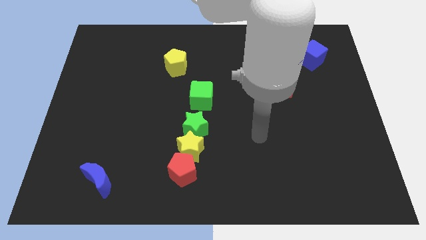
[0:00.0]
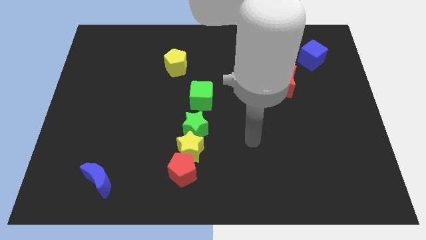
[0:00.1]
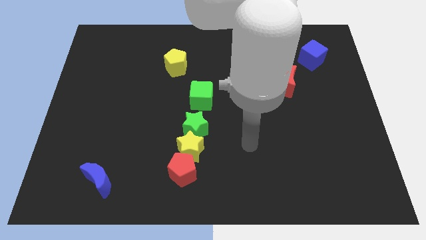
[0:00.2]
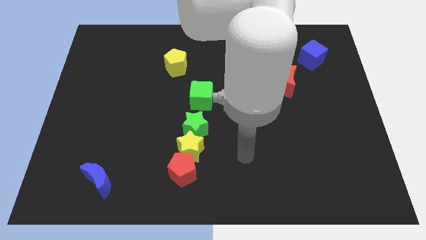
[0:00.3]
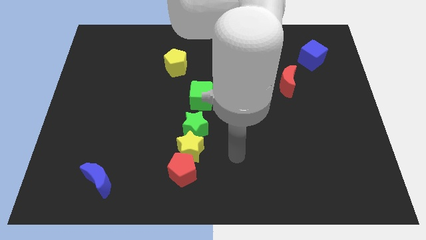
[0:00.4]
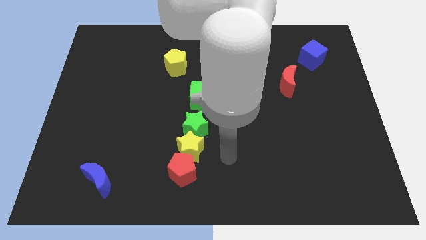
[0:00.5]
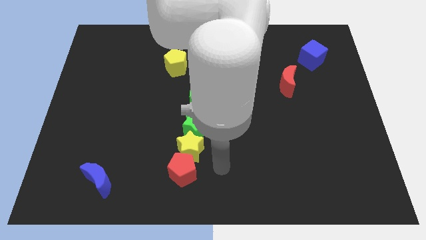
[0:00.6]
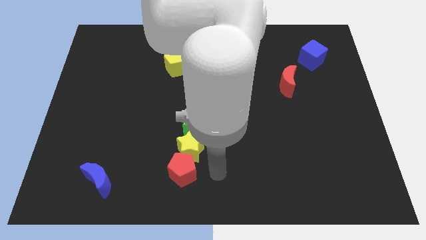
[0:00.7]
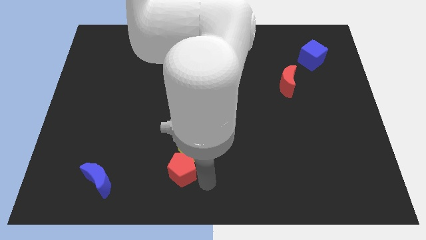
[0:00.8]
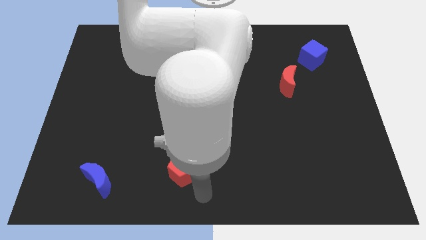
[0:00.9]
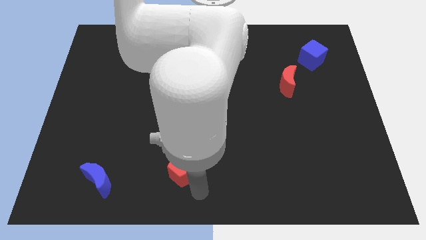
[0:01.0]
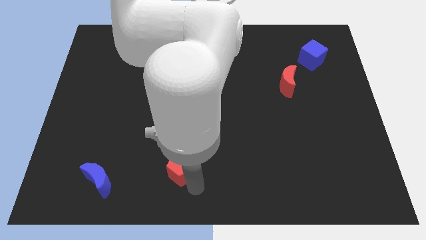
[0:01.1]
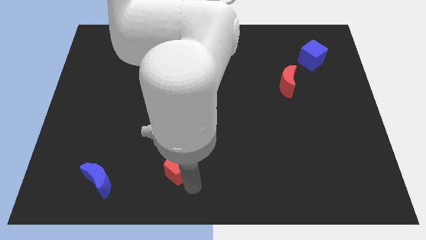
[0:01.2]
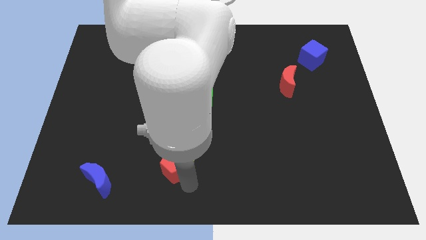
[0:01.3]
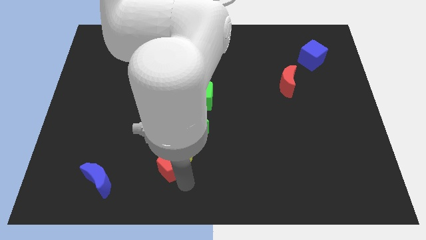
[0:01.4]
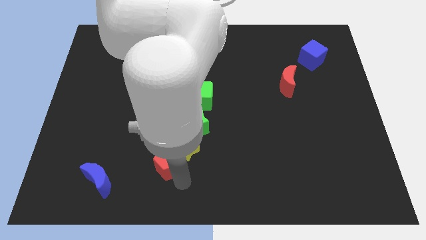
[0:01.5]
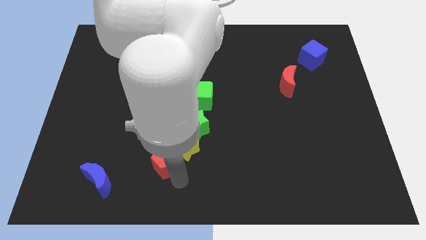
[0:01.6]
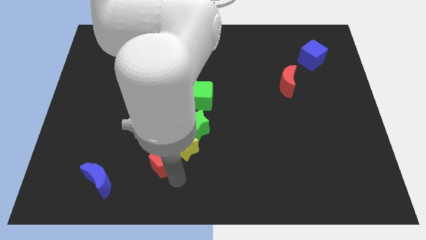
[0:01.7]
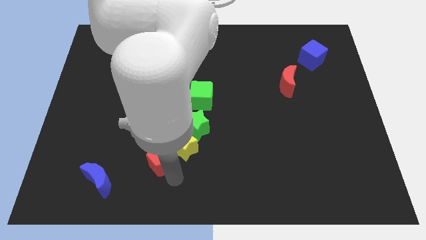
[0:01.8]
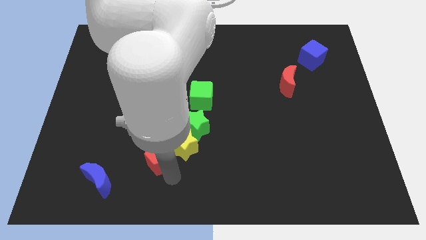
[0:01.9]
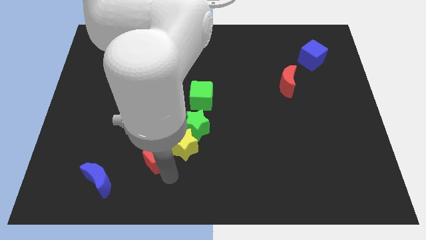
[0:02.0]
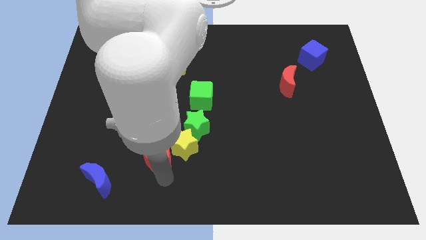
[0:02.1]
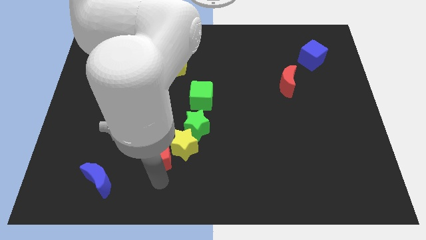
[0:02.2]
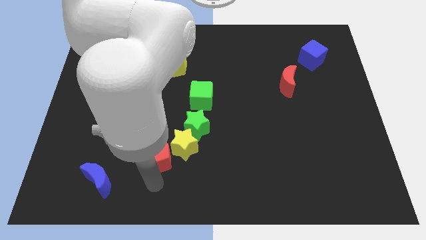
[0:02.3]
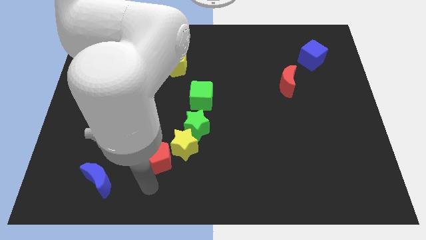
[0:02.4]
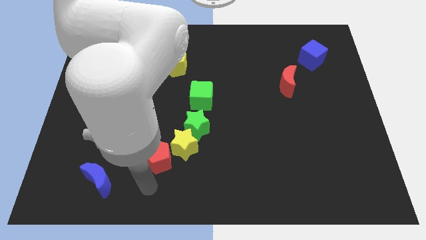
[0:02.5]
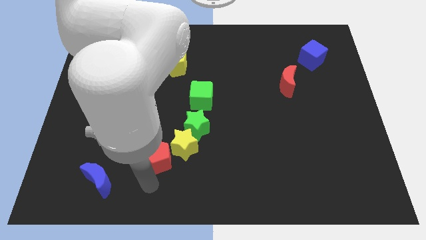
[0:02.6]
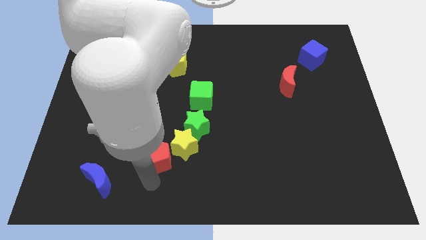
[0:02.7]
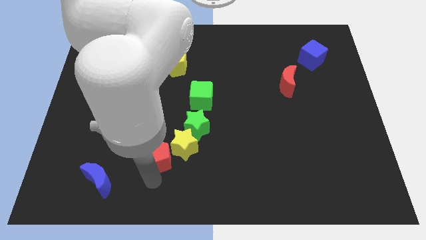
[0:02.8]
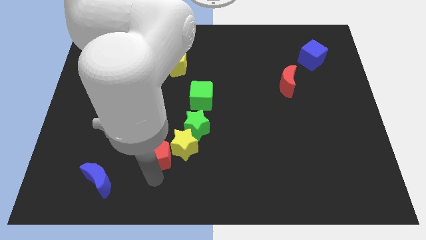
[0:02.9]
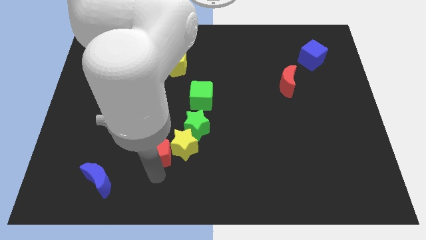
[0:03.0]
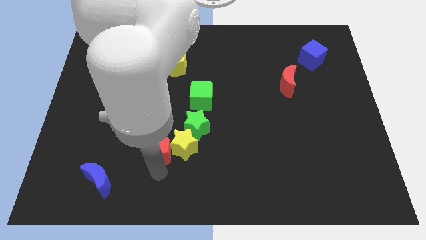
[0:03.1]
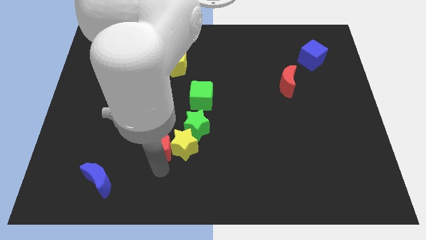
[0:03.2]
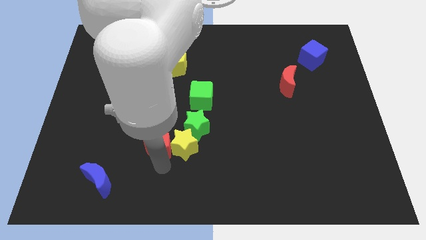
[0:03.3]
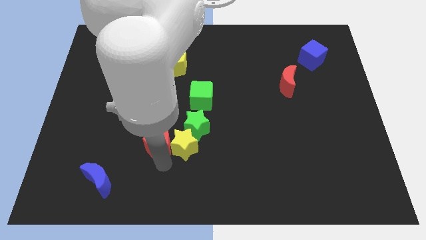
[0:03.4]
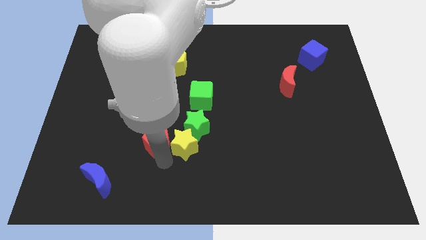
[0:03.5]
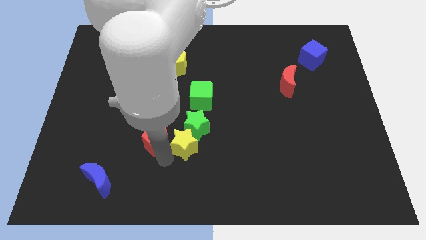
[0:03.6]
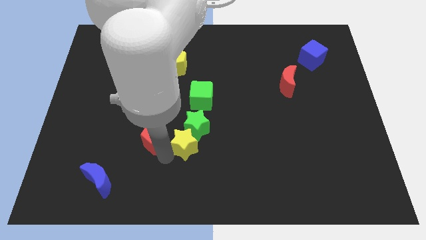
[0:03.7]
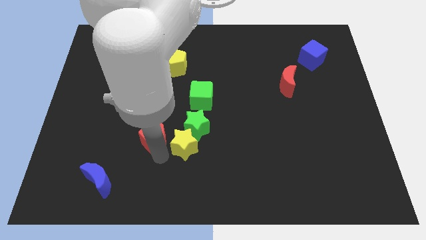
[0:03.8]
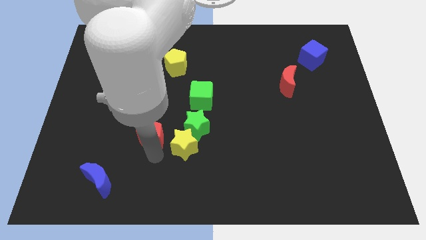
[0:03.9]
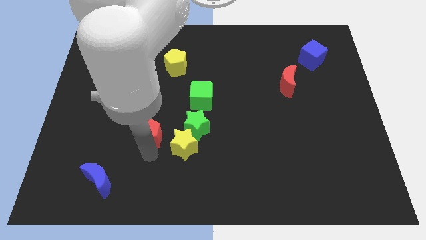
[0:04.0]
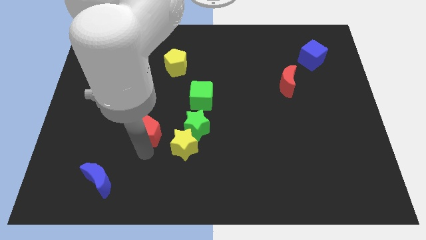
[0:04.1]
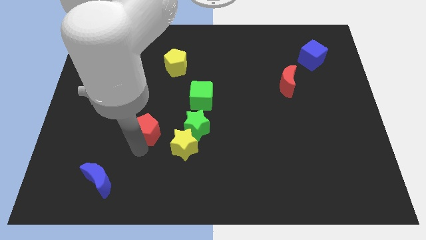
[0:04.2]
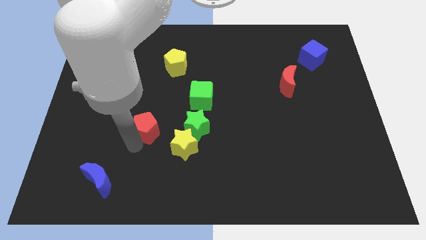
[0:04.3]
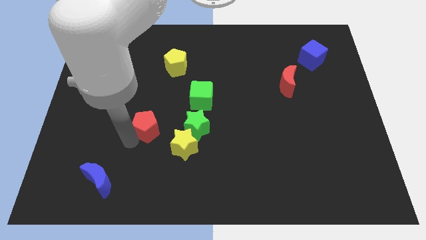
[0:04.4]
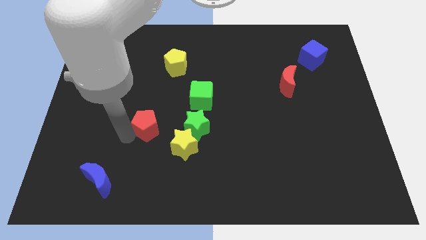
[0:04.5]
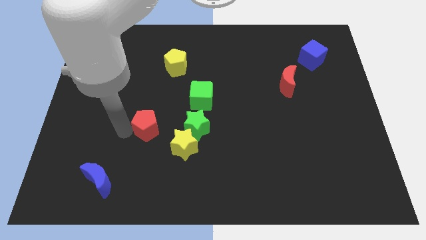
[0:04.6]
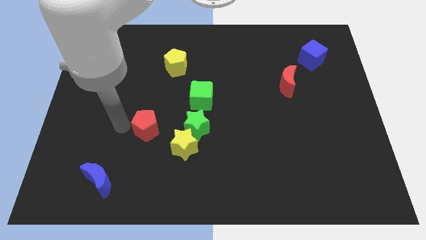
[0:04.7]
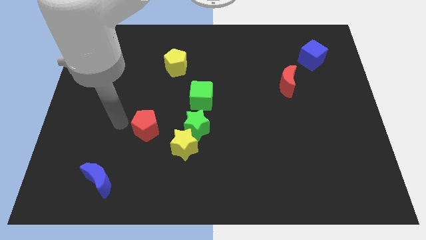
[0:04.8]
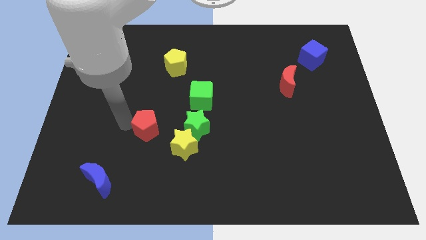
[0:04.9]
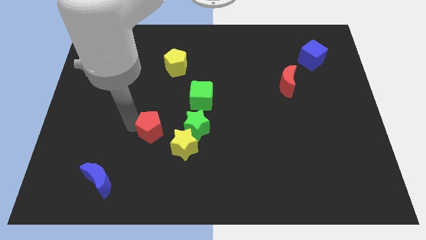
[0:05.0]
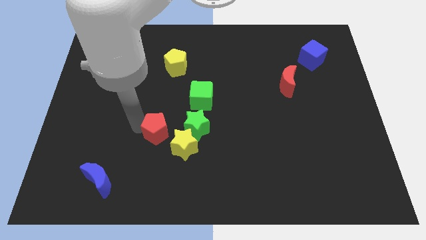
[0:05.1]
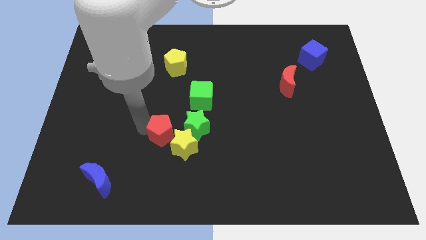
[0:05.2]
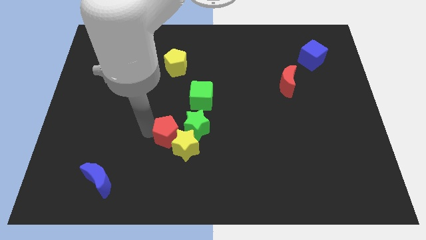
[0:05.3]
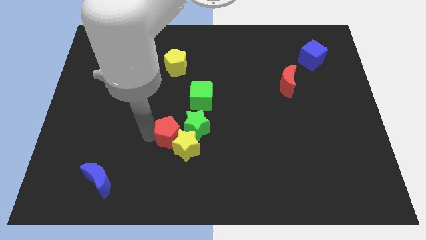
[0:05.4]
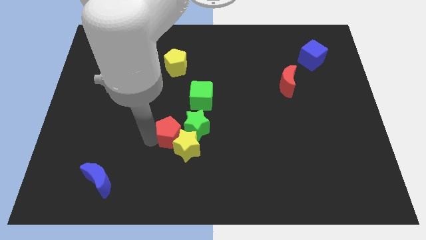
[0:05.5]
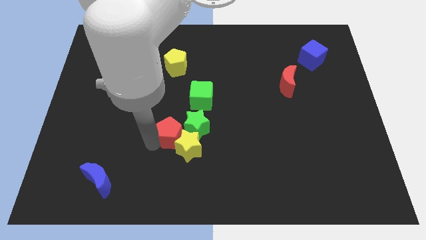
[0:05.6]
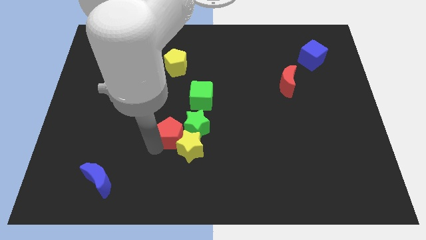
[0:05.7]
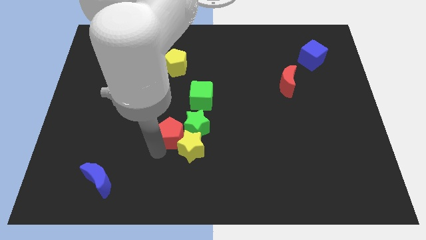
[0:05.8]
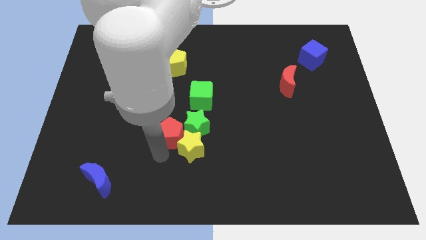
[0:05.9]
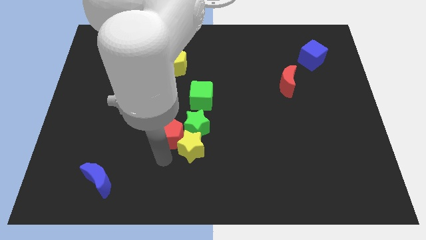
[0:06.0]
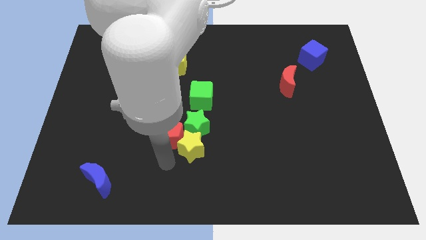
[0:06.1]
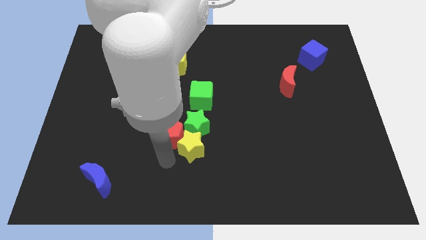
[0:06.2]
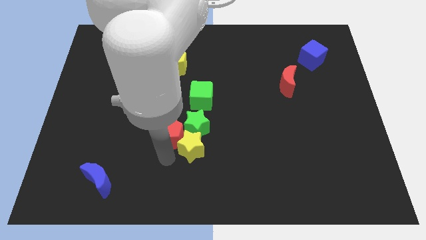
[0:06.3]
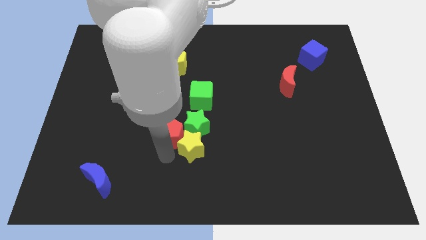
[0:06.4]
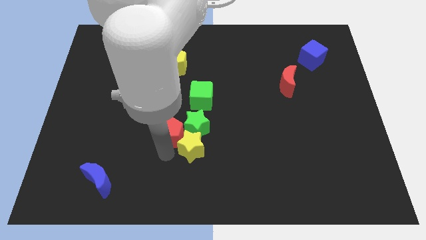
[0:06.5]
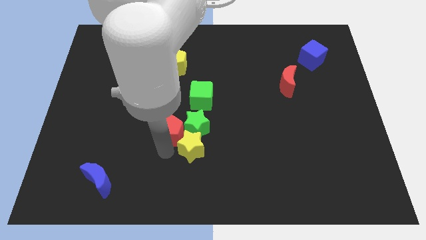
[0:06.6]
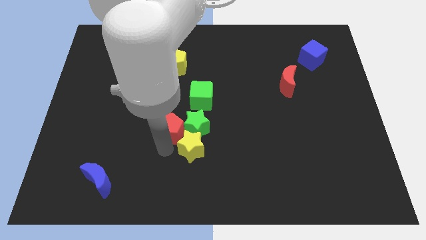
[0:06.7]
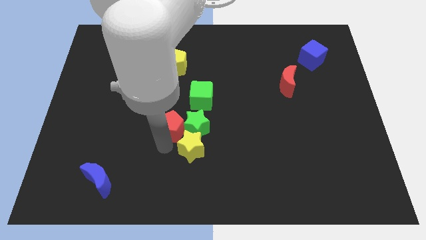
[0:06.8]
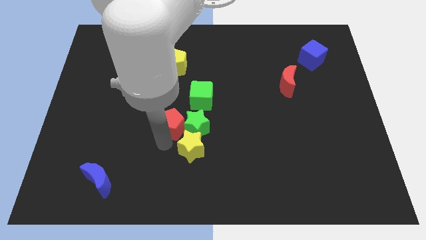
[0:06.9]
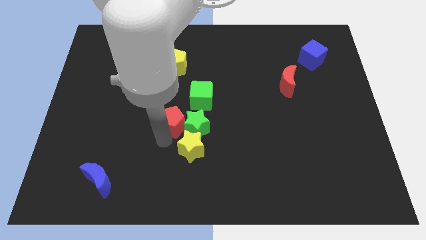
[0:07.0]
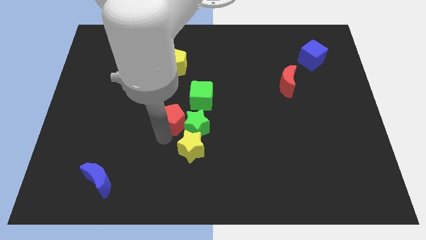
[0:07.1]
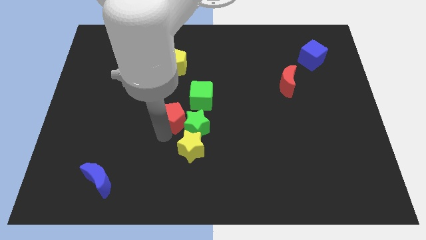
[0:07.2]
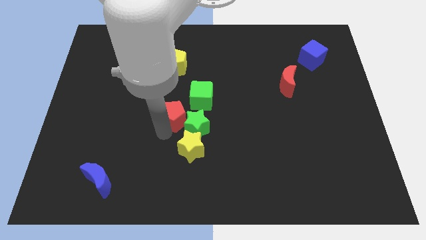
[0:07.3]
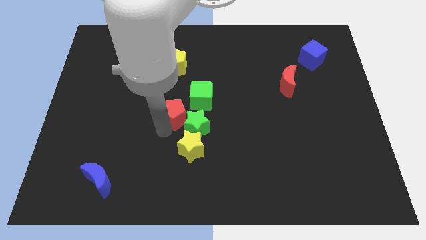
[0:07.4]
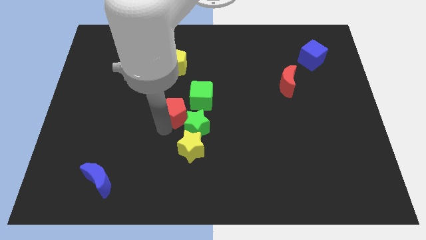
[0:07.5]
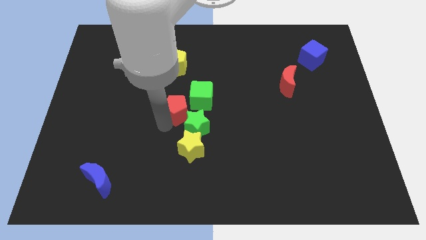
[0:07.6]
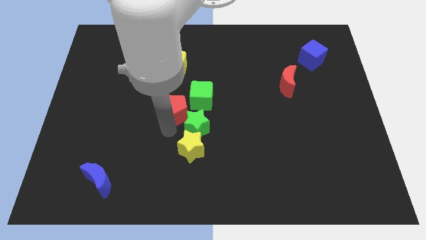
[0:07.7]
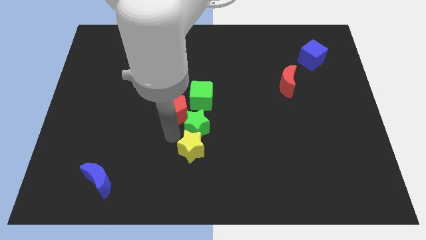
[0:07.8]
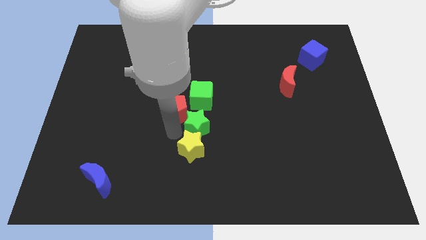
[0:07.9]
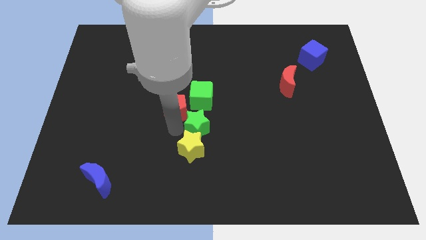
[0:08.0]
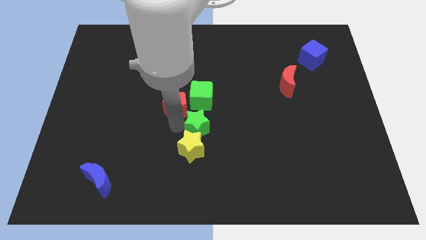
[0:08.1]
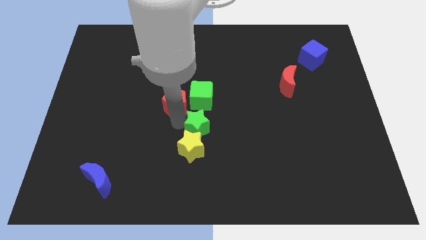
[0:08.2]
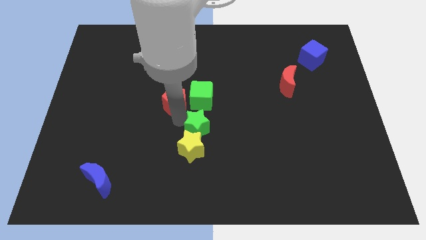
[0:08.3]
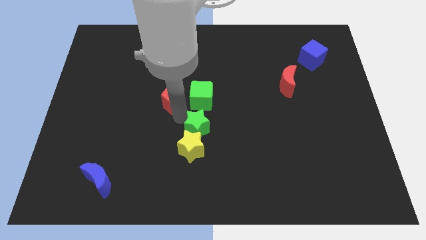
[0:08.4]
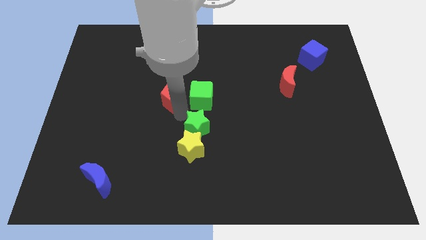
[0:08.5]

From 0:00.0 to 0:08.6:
move the red pentagon diagonally up and to the left of the green cube
